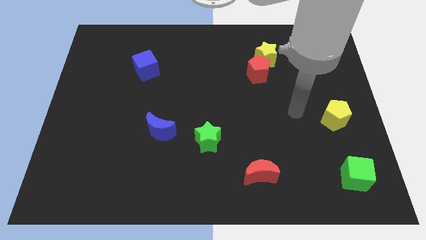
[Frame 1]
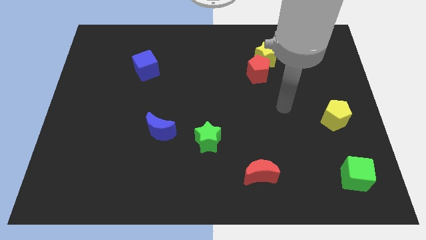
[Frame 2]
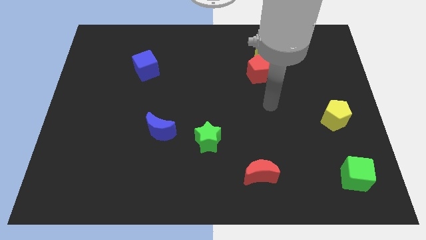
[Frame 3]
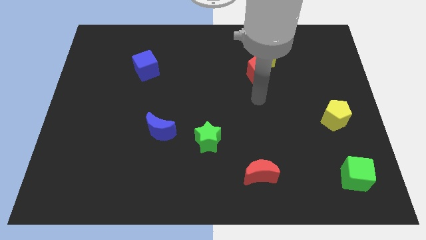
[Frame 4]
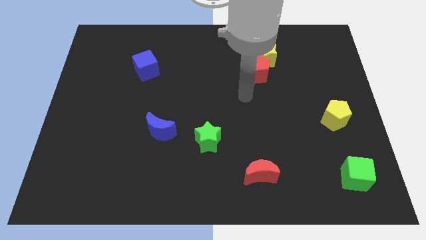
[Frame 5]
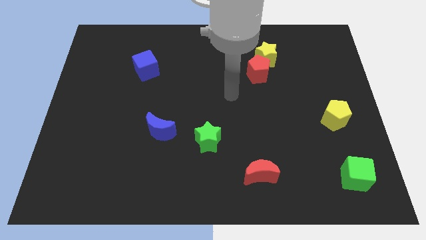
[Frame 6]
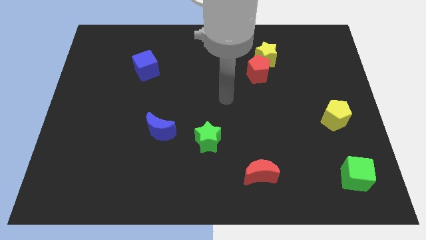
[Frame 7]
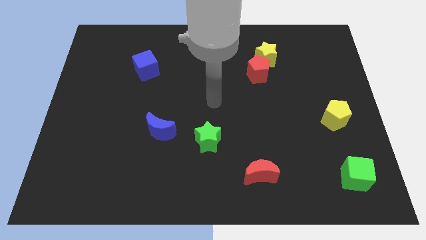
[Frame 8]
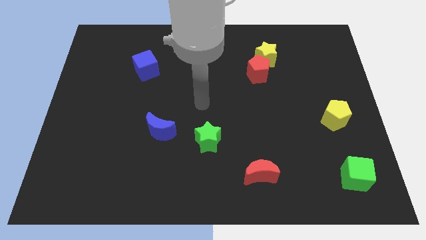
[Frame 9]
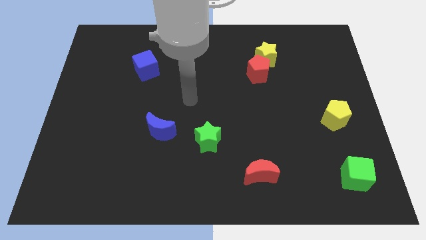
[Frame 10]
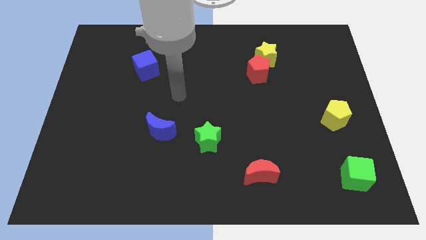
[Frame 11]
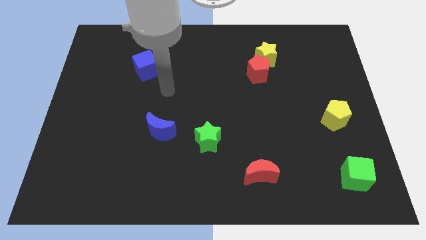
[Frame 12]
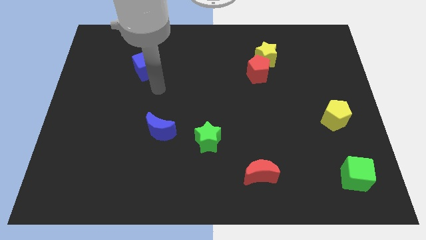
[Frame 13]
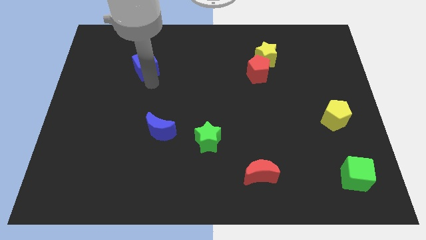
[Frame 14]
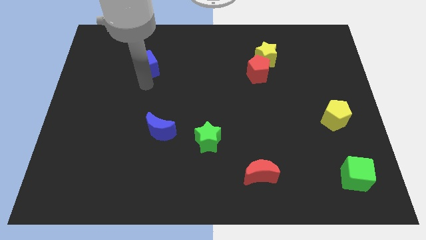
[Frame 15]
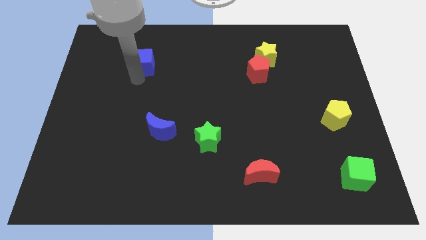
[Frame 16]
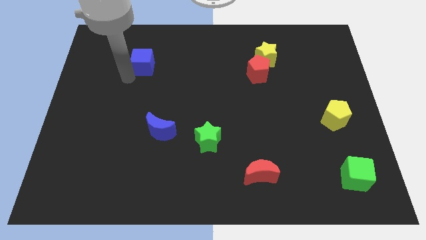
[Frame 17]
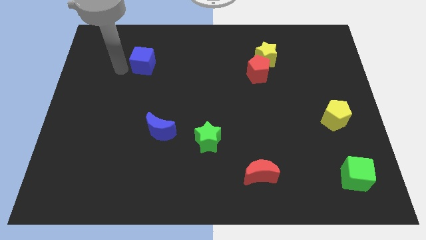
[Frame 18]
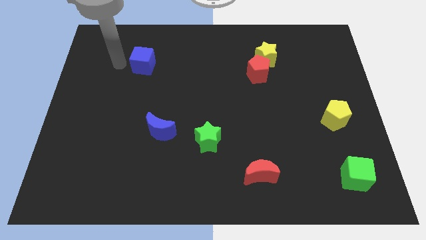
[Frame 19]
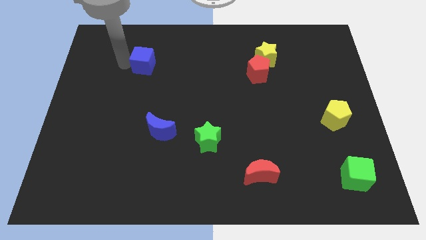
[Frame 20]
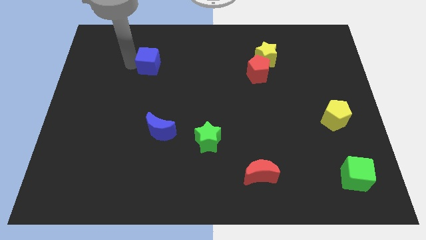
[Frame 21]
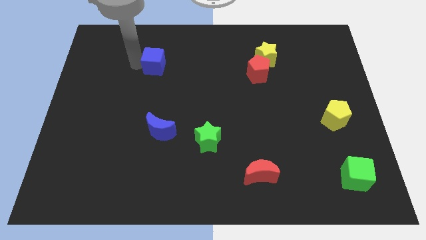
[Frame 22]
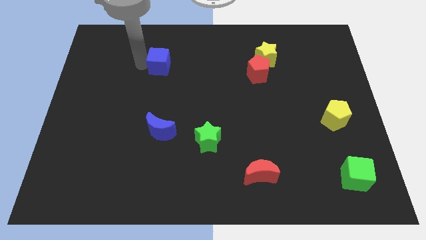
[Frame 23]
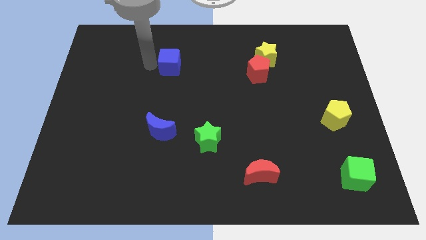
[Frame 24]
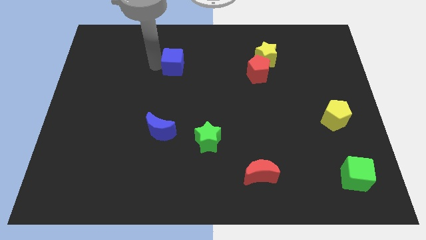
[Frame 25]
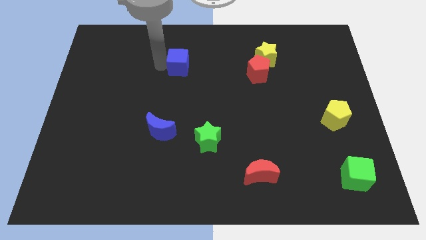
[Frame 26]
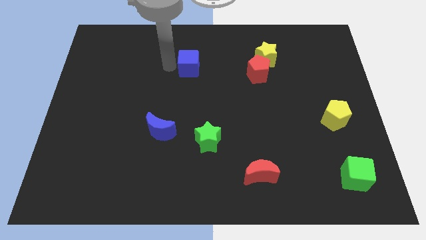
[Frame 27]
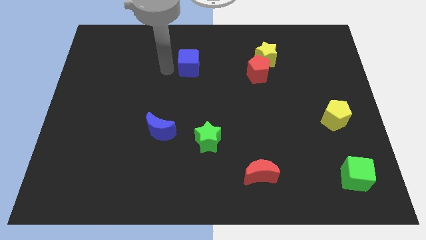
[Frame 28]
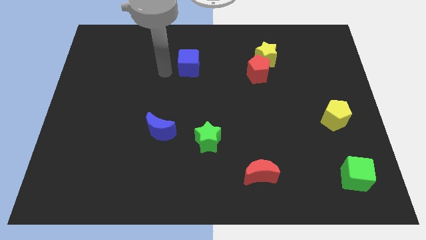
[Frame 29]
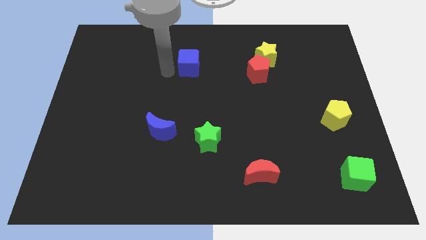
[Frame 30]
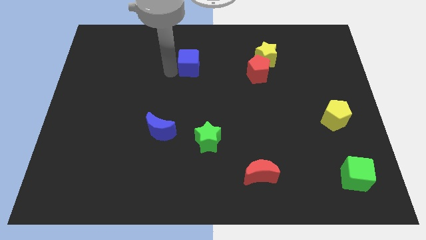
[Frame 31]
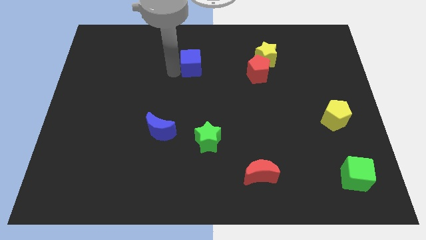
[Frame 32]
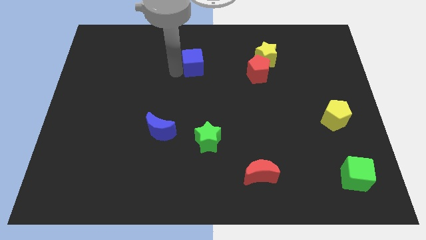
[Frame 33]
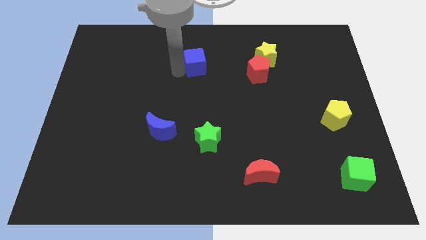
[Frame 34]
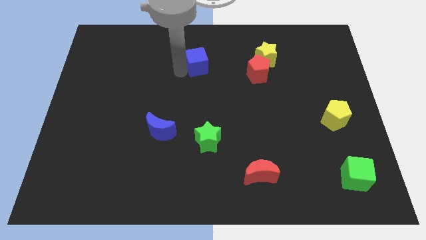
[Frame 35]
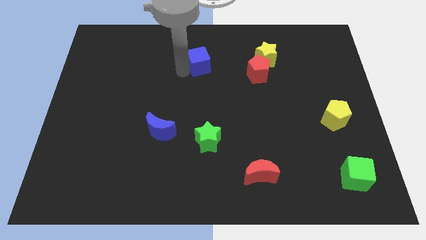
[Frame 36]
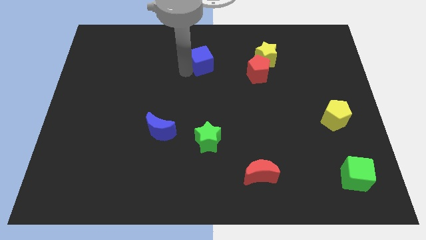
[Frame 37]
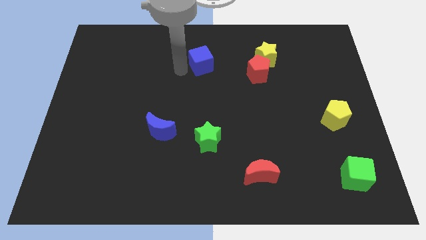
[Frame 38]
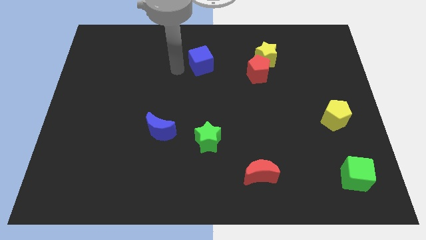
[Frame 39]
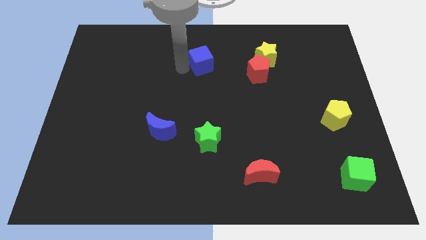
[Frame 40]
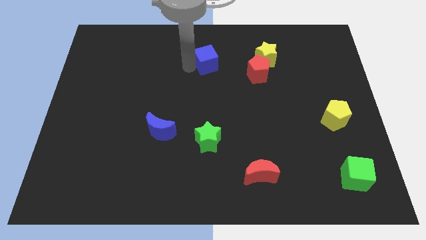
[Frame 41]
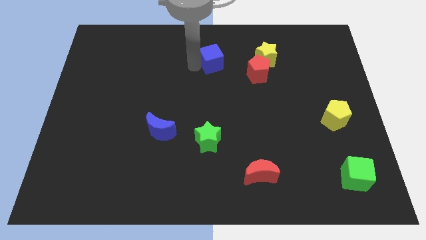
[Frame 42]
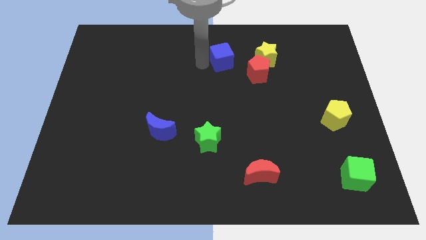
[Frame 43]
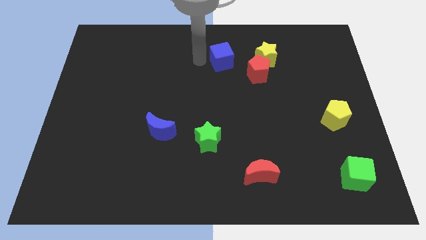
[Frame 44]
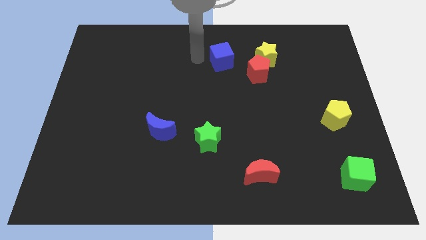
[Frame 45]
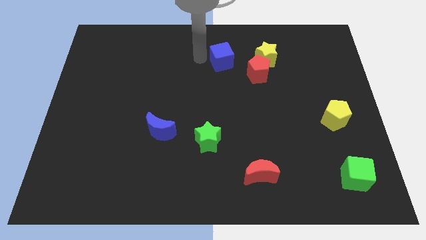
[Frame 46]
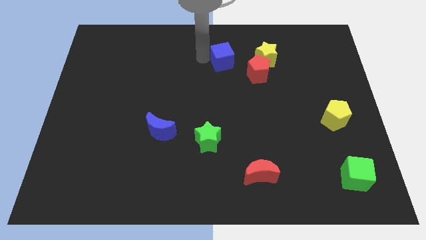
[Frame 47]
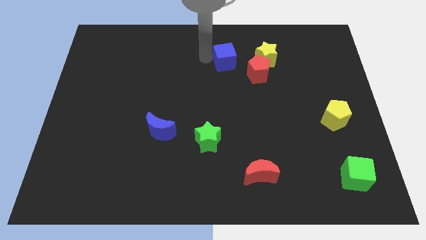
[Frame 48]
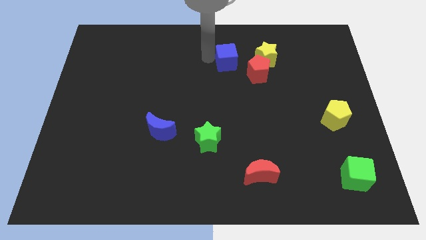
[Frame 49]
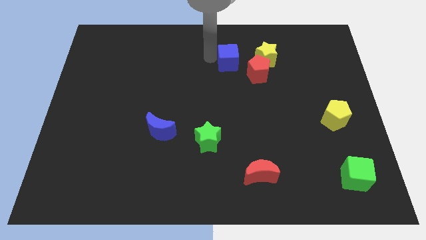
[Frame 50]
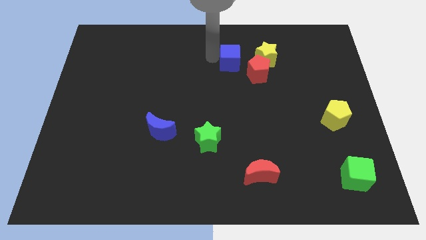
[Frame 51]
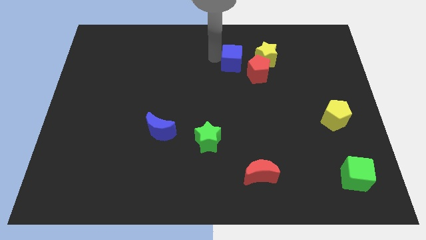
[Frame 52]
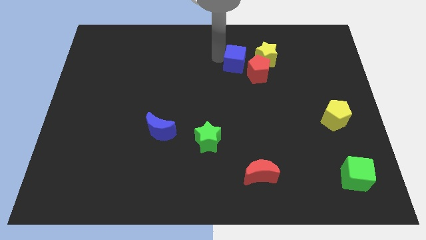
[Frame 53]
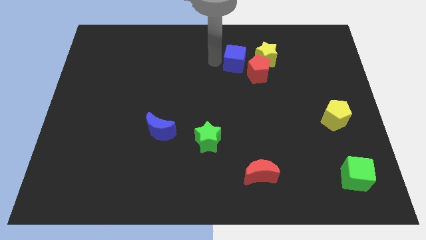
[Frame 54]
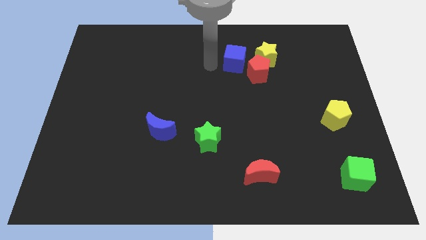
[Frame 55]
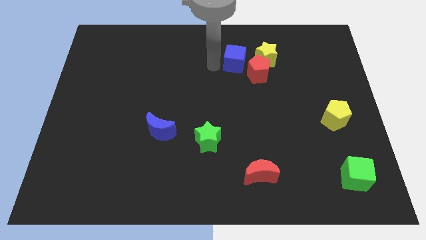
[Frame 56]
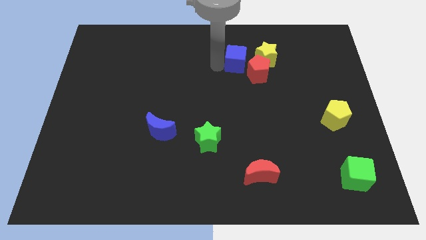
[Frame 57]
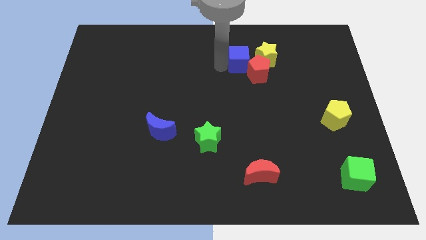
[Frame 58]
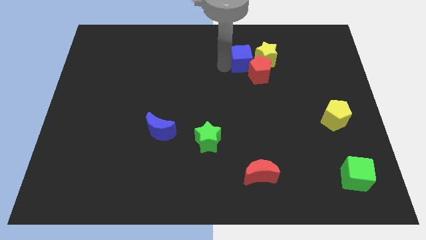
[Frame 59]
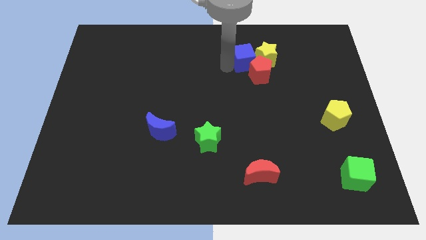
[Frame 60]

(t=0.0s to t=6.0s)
put the blue cube towards the yellow star

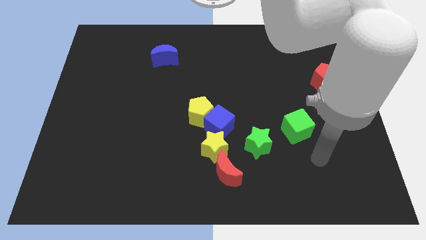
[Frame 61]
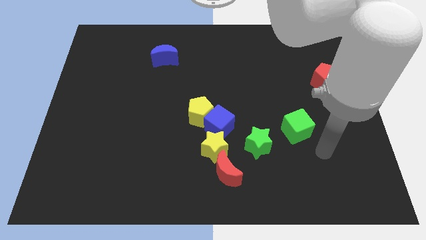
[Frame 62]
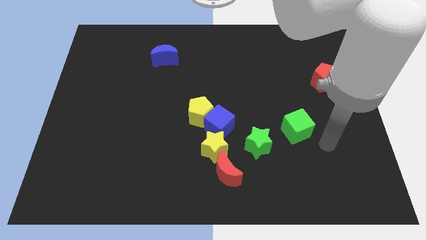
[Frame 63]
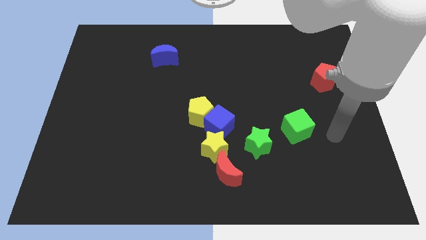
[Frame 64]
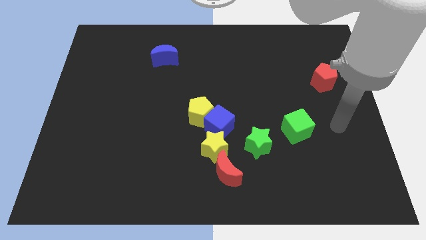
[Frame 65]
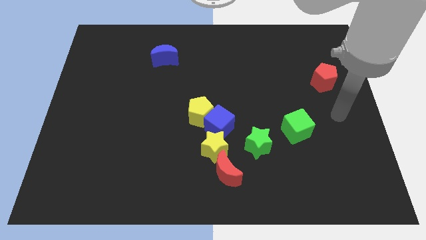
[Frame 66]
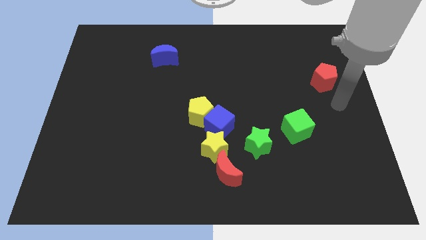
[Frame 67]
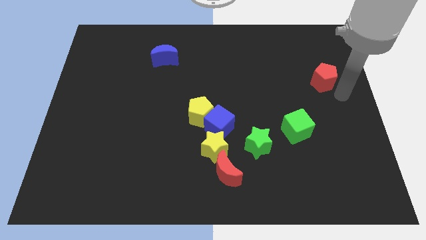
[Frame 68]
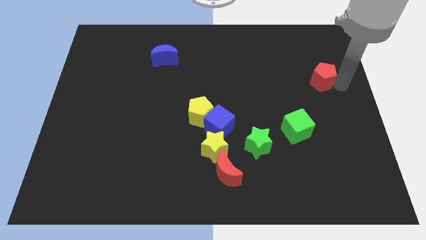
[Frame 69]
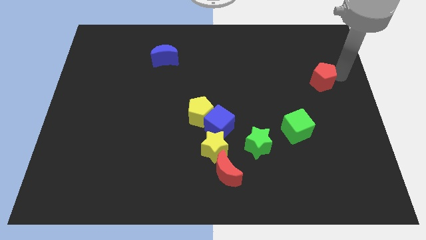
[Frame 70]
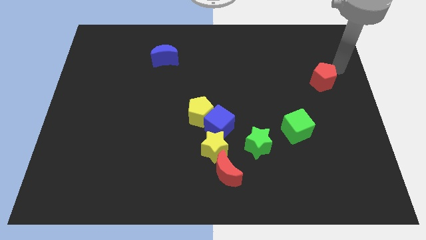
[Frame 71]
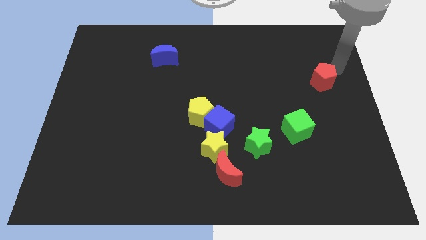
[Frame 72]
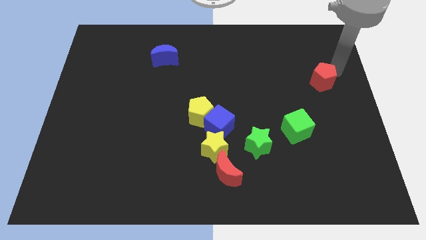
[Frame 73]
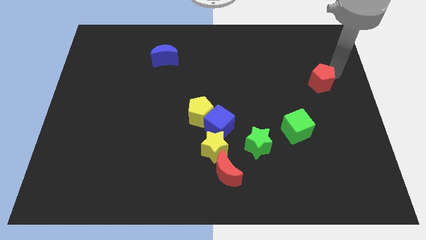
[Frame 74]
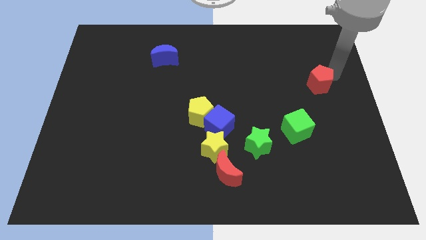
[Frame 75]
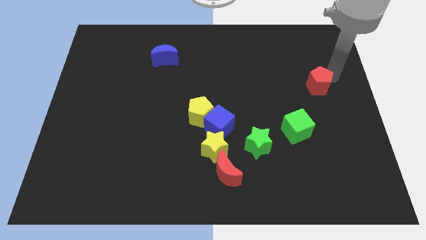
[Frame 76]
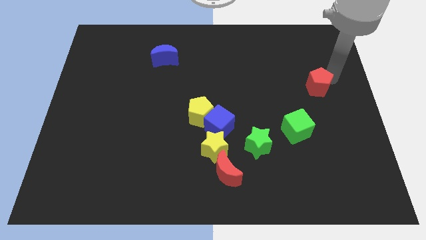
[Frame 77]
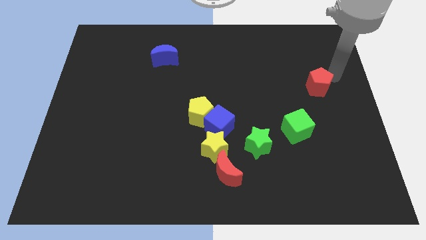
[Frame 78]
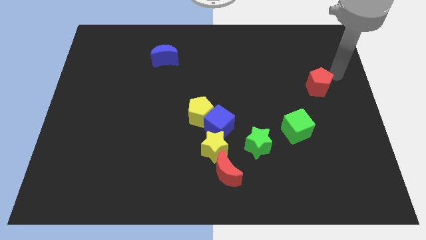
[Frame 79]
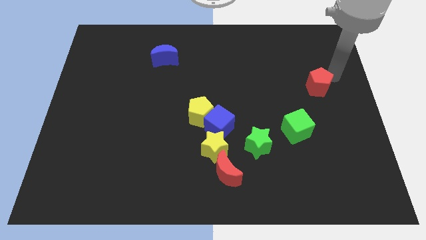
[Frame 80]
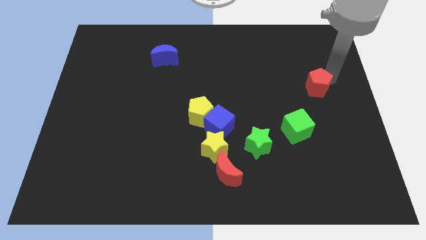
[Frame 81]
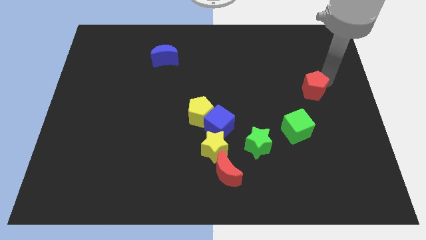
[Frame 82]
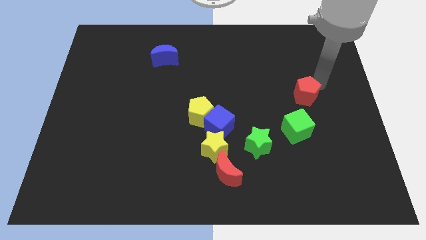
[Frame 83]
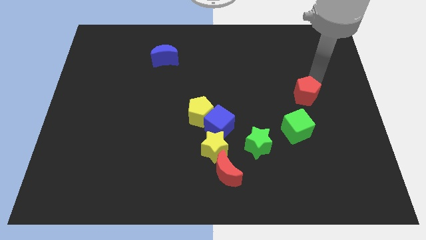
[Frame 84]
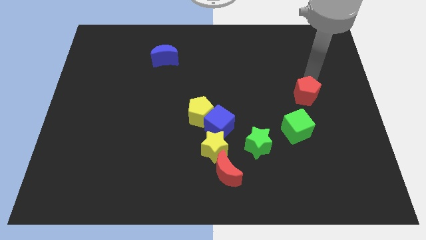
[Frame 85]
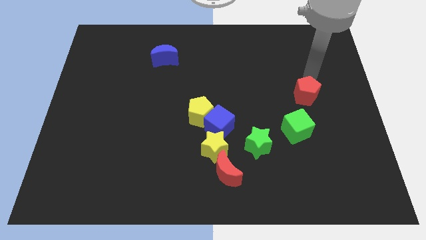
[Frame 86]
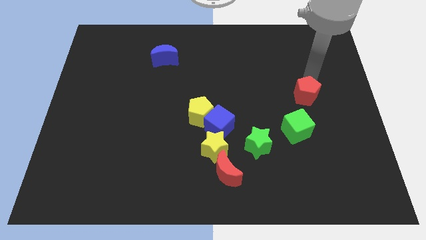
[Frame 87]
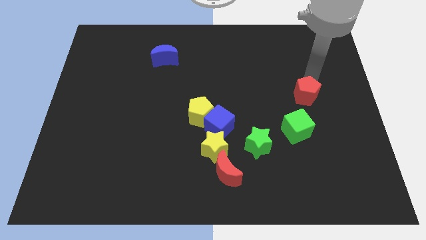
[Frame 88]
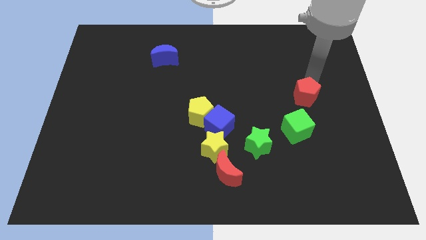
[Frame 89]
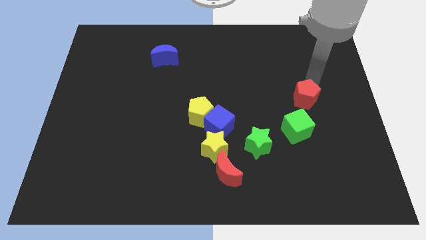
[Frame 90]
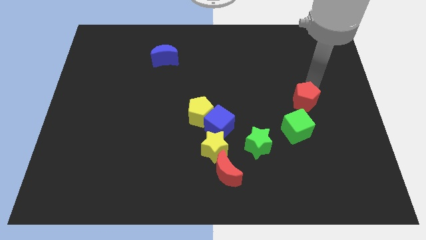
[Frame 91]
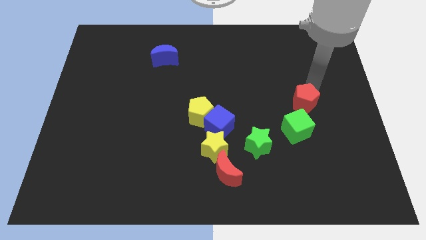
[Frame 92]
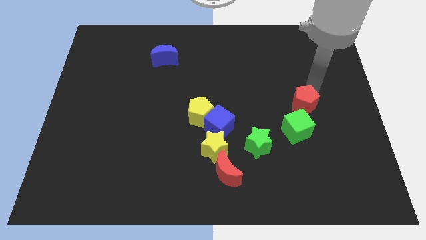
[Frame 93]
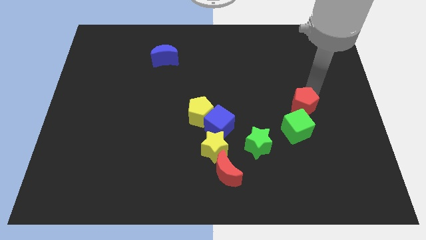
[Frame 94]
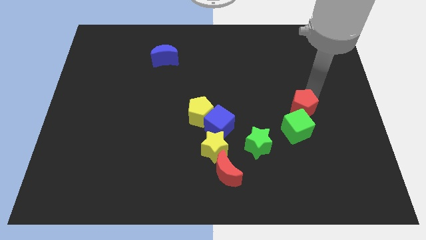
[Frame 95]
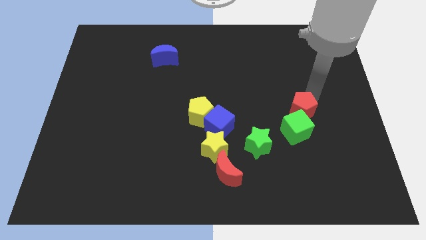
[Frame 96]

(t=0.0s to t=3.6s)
slide the red pentagon close to the green cube
